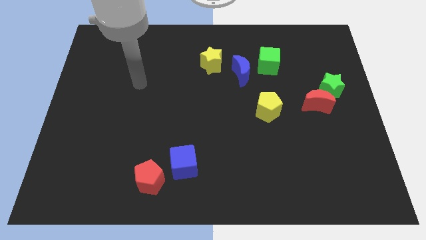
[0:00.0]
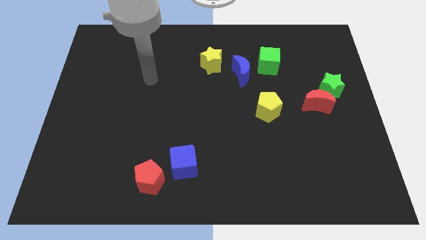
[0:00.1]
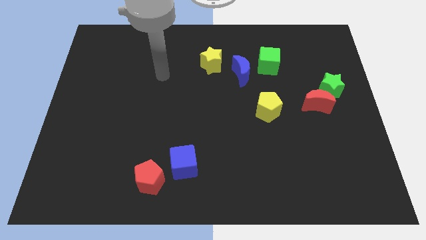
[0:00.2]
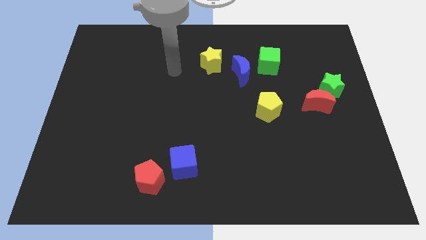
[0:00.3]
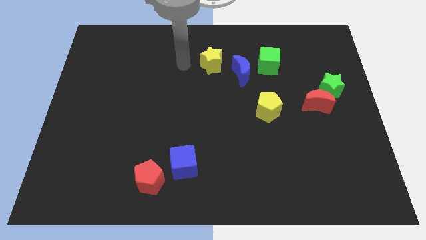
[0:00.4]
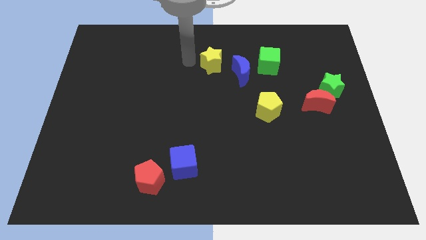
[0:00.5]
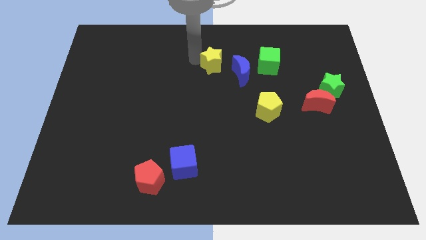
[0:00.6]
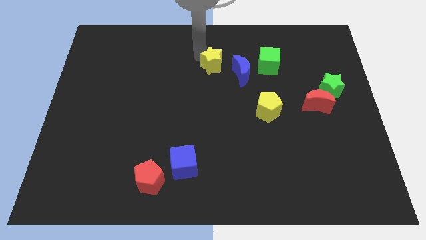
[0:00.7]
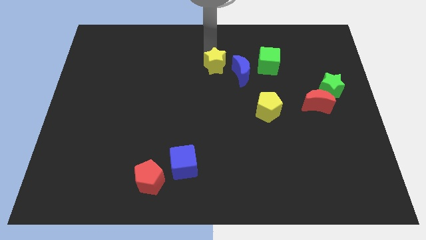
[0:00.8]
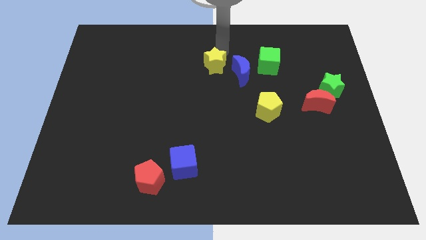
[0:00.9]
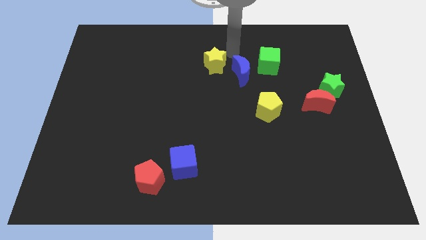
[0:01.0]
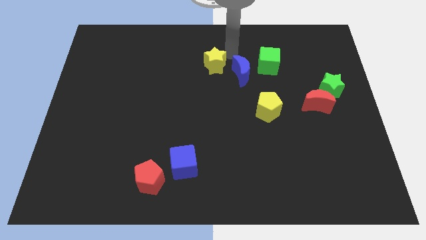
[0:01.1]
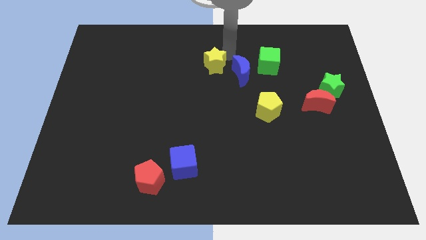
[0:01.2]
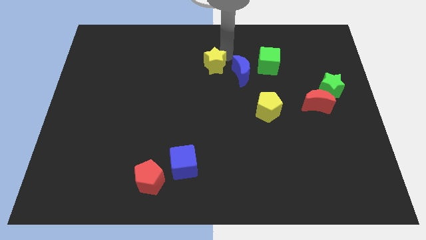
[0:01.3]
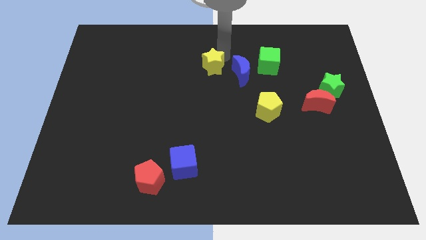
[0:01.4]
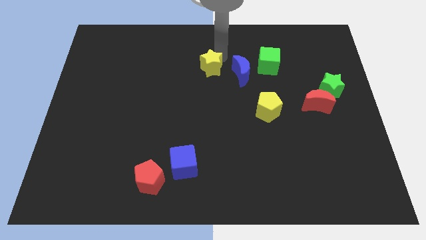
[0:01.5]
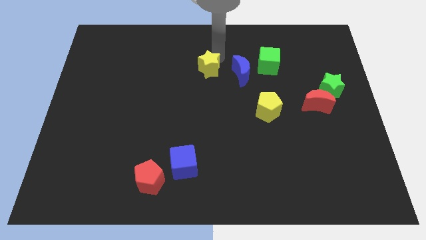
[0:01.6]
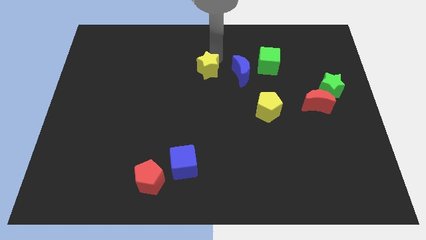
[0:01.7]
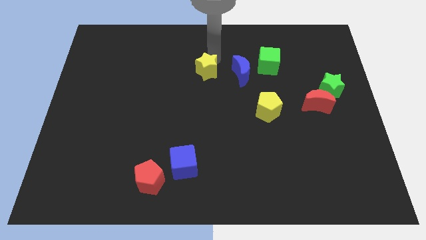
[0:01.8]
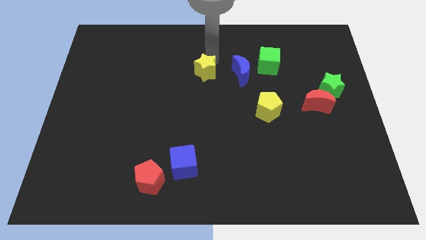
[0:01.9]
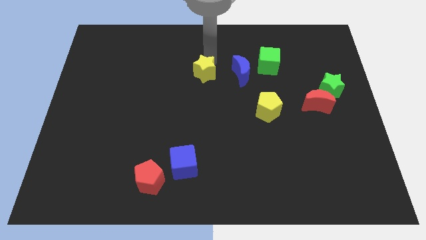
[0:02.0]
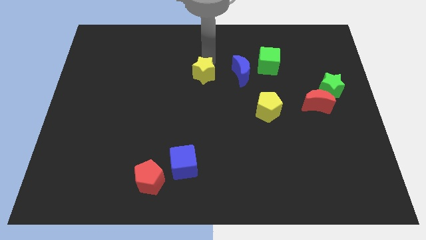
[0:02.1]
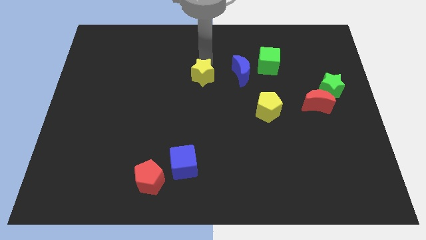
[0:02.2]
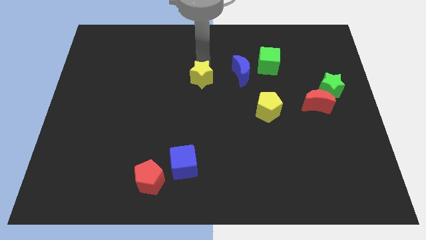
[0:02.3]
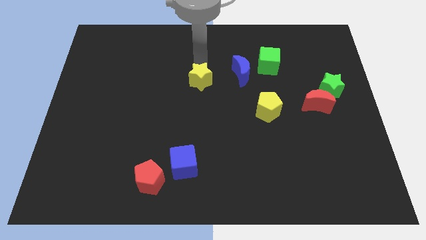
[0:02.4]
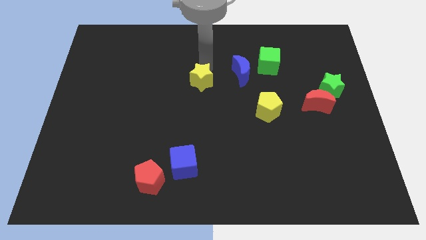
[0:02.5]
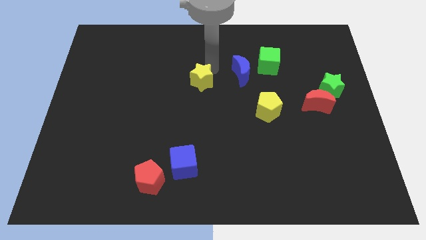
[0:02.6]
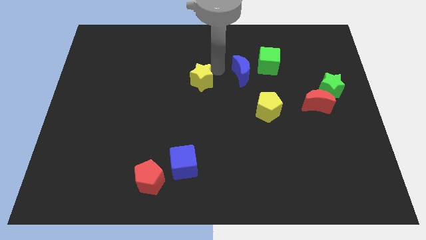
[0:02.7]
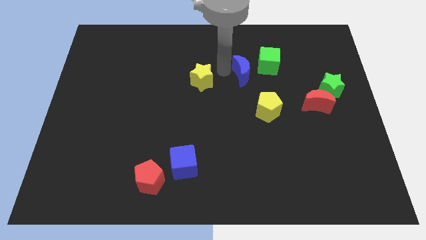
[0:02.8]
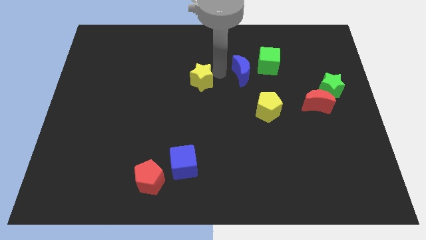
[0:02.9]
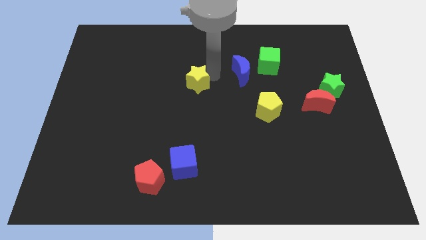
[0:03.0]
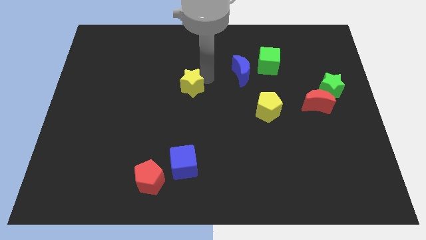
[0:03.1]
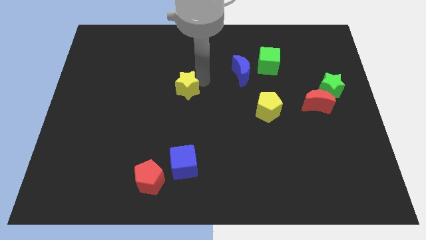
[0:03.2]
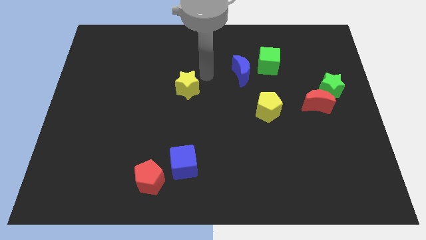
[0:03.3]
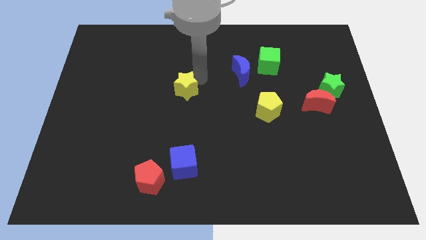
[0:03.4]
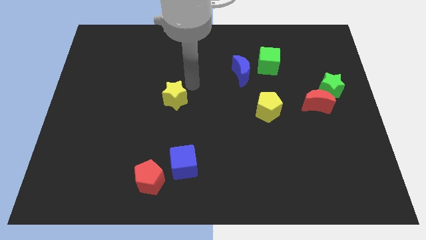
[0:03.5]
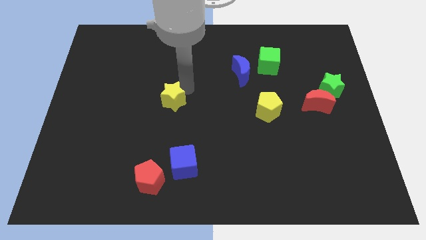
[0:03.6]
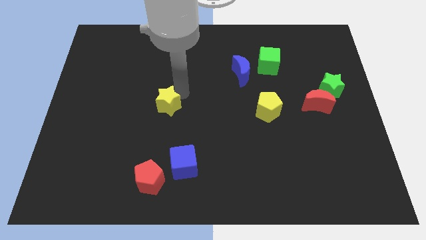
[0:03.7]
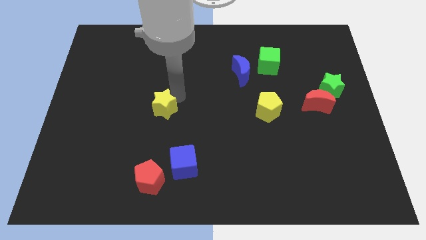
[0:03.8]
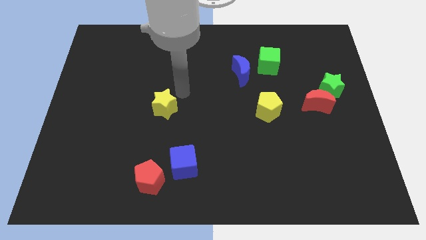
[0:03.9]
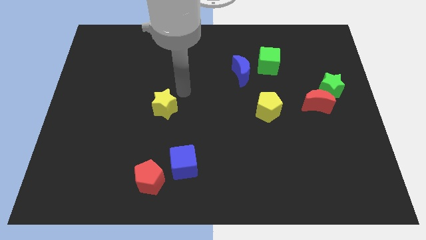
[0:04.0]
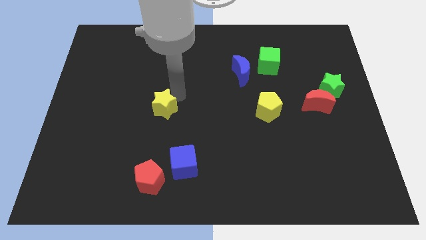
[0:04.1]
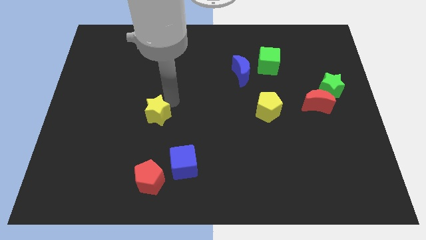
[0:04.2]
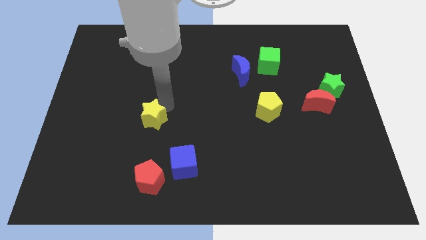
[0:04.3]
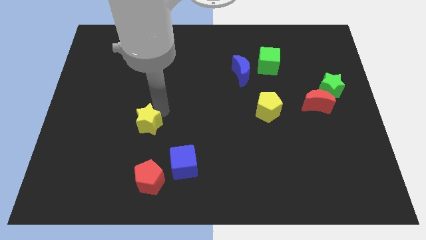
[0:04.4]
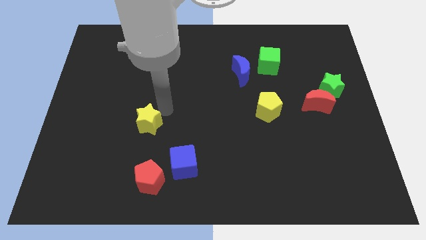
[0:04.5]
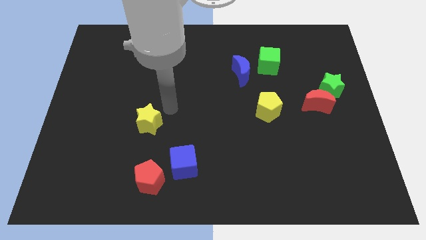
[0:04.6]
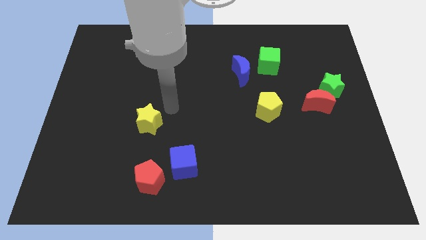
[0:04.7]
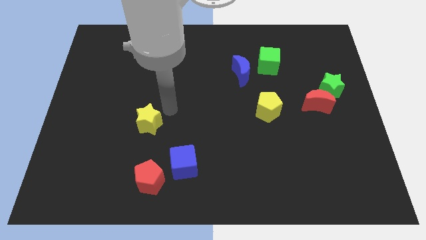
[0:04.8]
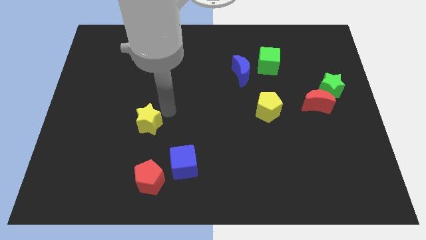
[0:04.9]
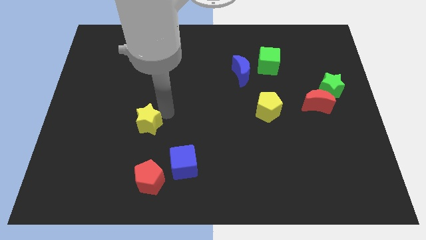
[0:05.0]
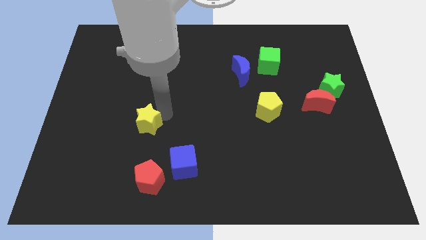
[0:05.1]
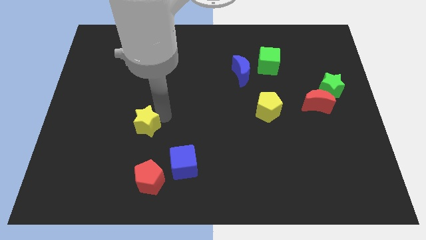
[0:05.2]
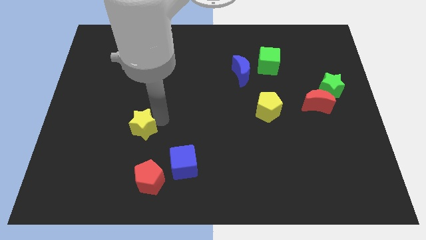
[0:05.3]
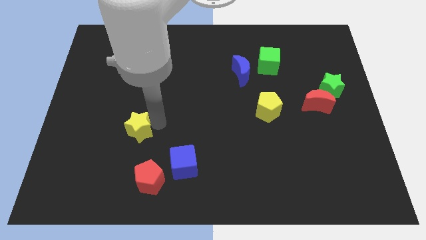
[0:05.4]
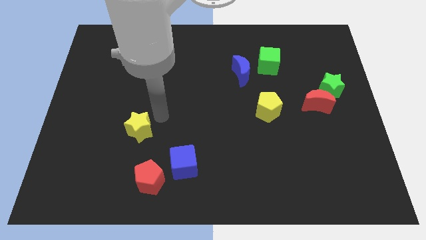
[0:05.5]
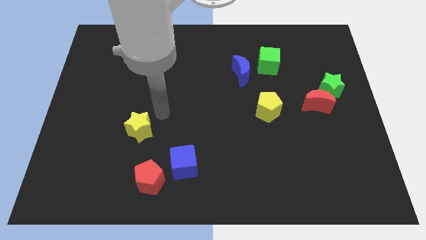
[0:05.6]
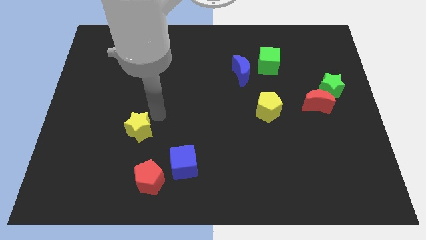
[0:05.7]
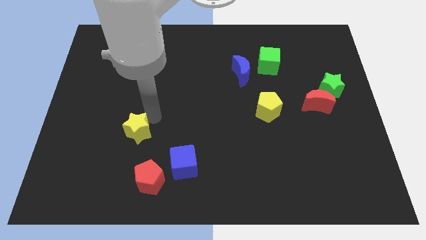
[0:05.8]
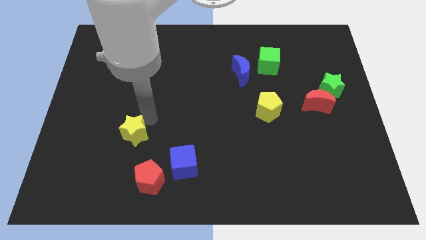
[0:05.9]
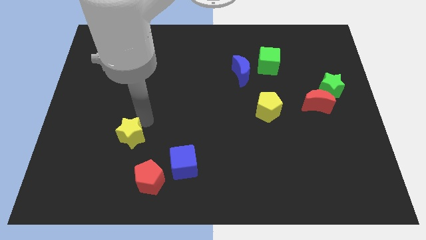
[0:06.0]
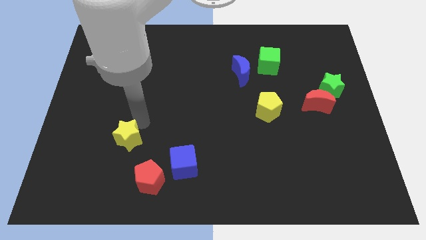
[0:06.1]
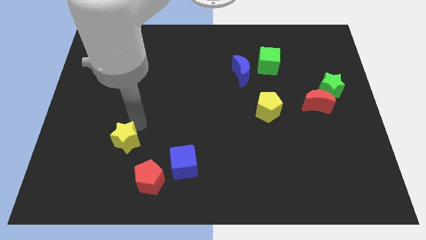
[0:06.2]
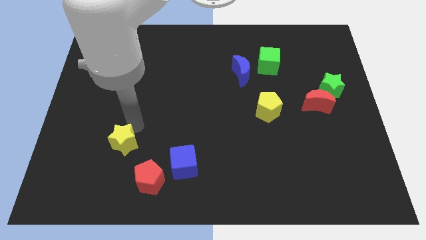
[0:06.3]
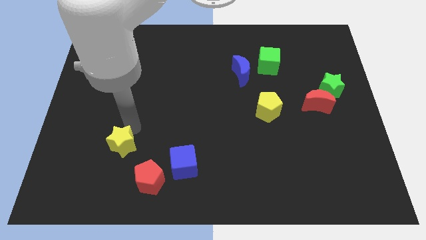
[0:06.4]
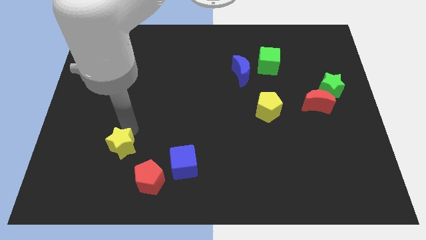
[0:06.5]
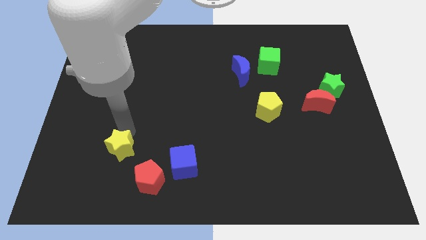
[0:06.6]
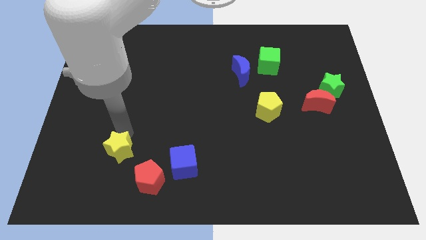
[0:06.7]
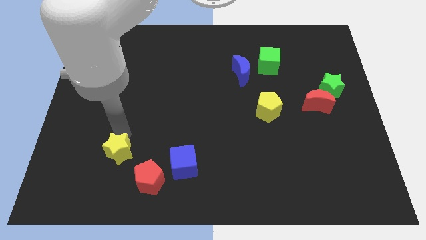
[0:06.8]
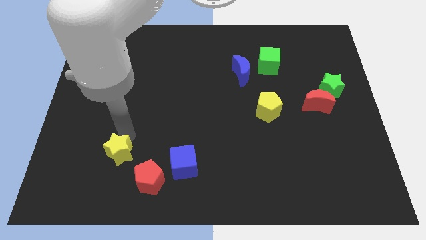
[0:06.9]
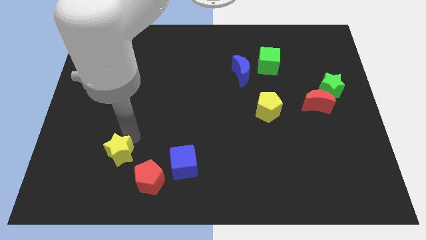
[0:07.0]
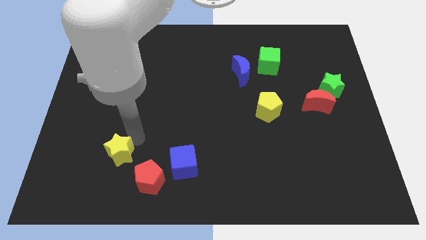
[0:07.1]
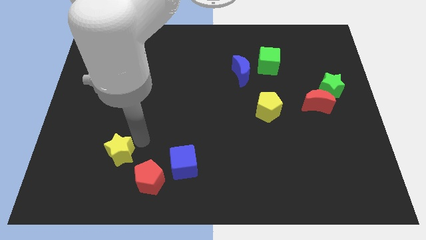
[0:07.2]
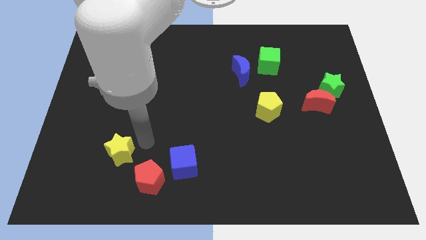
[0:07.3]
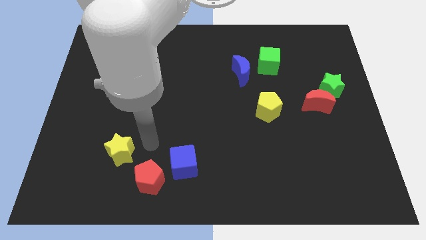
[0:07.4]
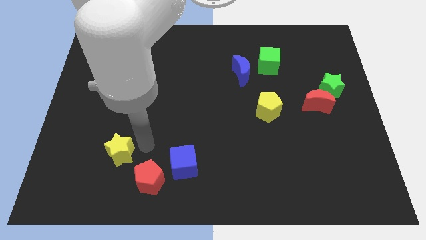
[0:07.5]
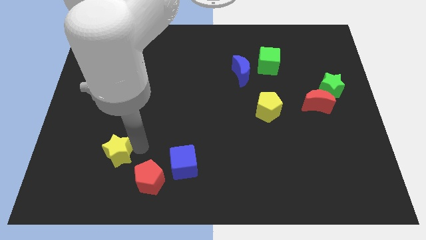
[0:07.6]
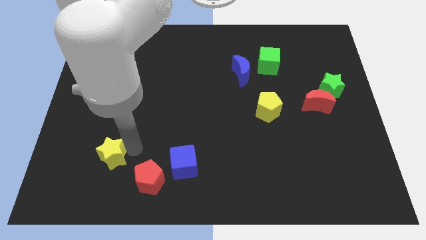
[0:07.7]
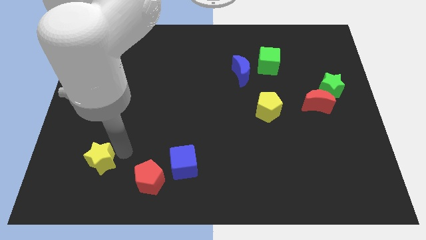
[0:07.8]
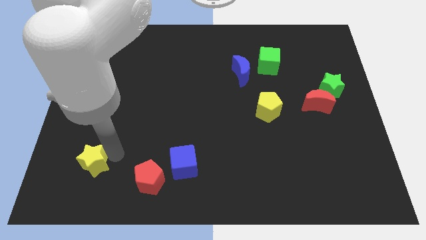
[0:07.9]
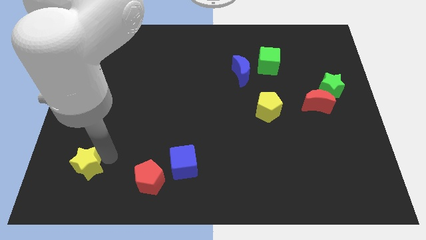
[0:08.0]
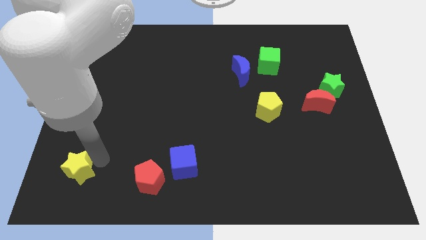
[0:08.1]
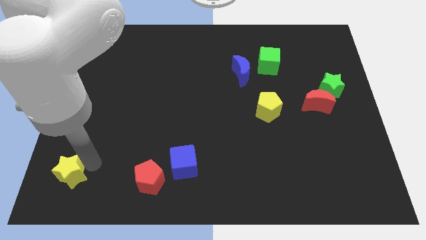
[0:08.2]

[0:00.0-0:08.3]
push the yellow star to the bottom left
